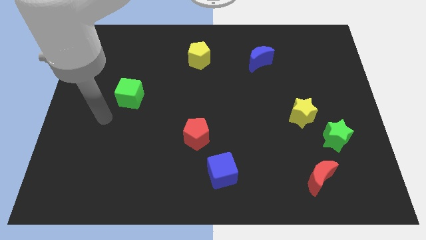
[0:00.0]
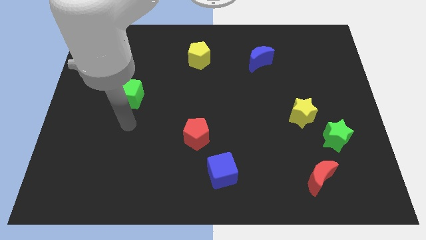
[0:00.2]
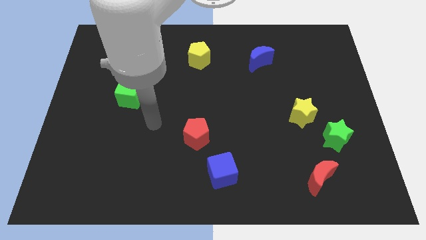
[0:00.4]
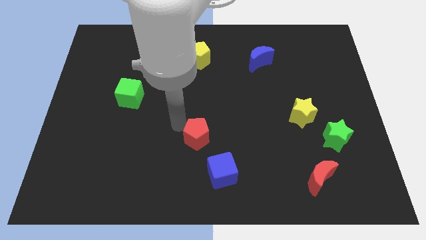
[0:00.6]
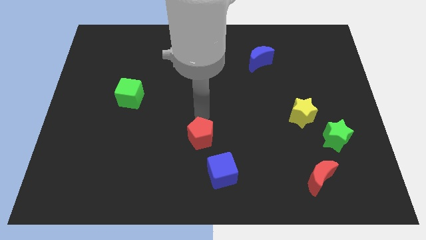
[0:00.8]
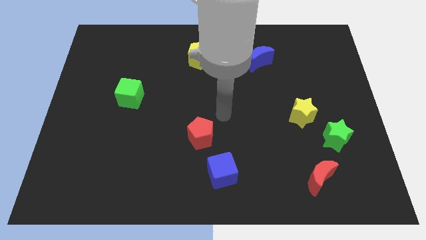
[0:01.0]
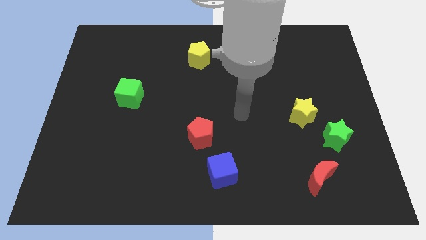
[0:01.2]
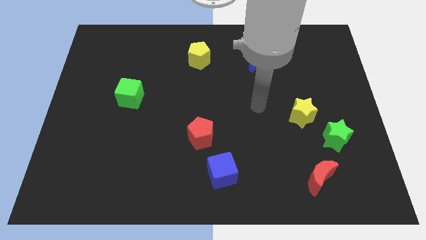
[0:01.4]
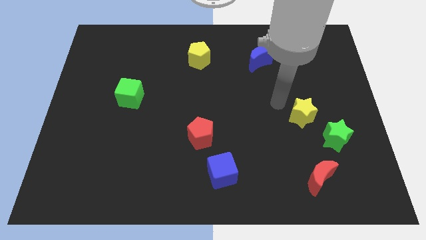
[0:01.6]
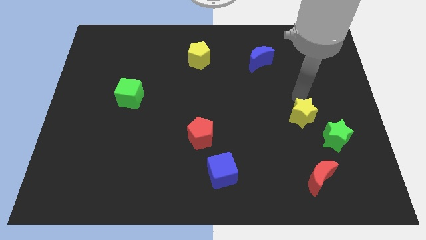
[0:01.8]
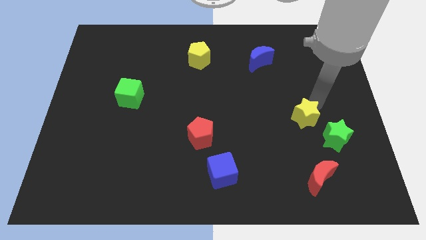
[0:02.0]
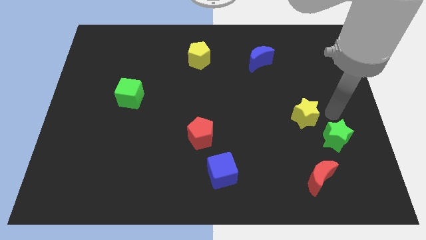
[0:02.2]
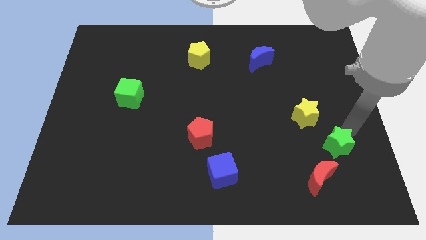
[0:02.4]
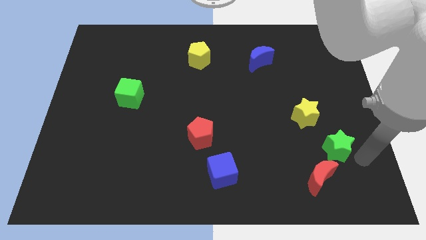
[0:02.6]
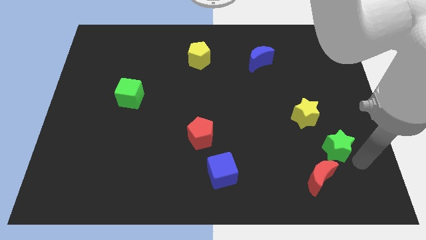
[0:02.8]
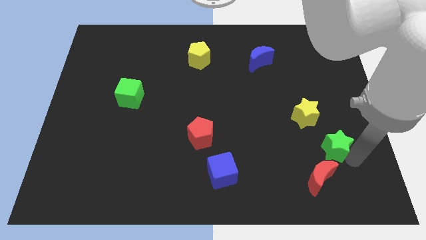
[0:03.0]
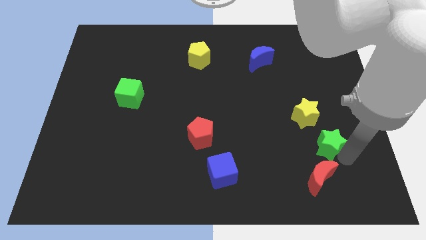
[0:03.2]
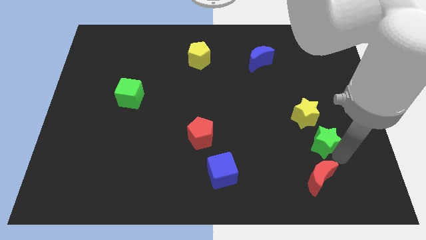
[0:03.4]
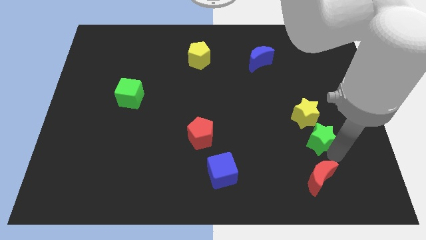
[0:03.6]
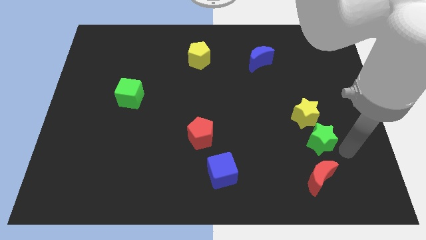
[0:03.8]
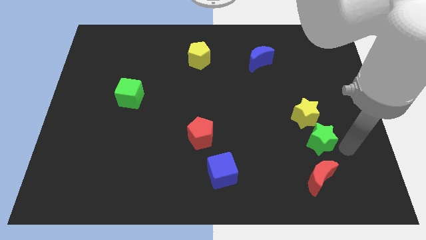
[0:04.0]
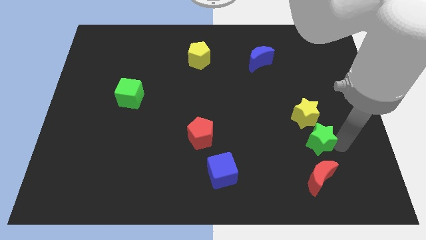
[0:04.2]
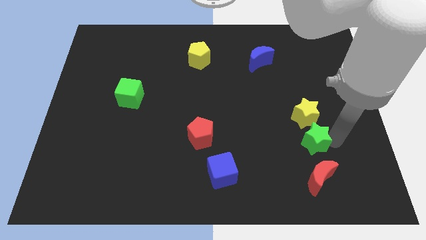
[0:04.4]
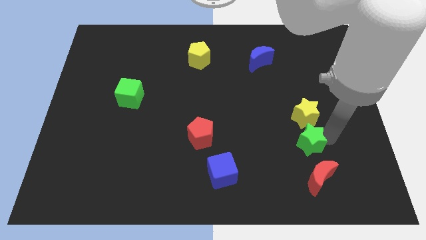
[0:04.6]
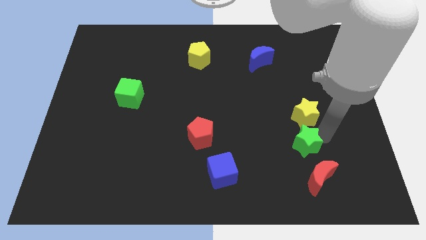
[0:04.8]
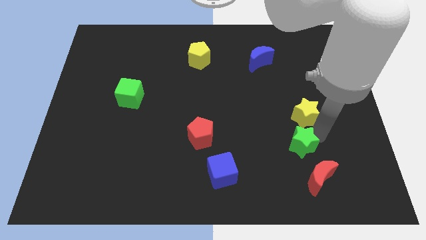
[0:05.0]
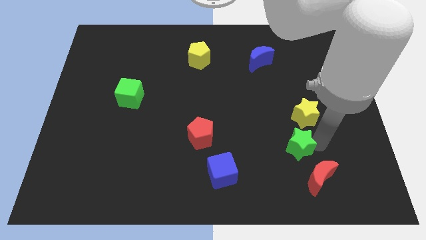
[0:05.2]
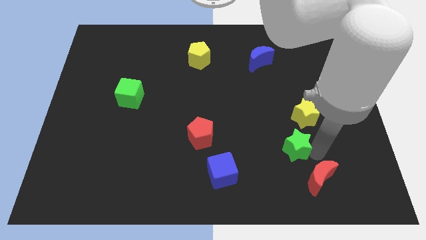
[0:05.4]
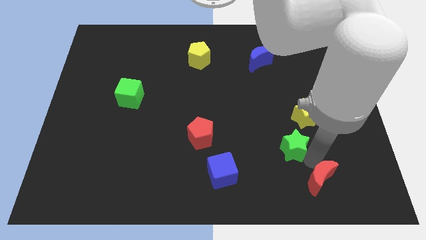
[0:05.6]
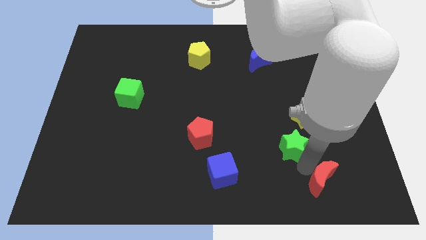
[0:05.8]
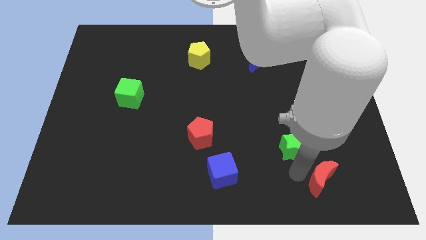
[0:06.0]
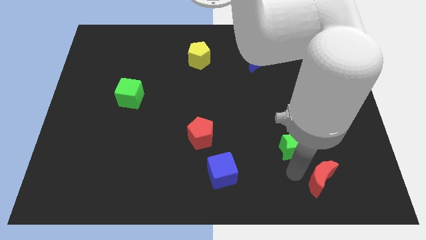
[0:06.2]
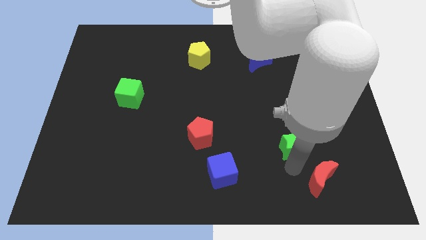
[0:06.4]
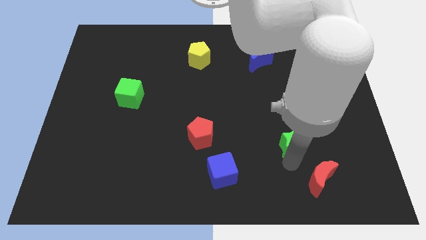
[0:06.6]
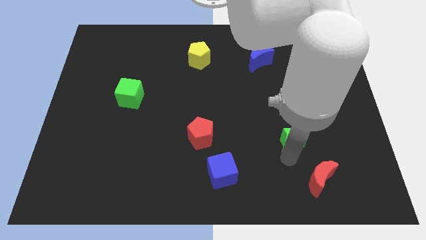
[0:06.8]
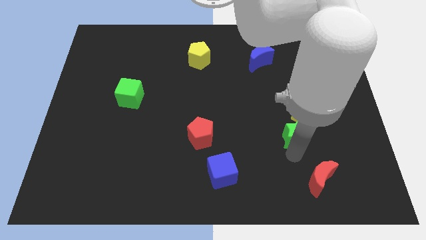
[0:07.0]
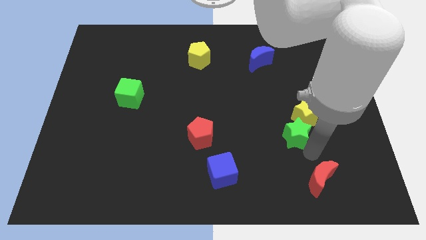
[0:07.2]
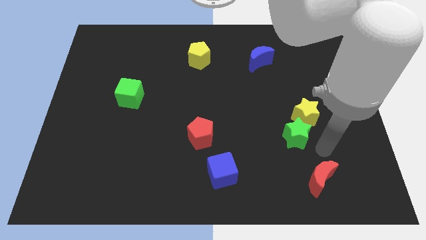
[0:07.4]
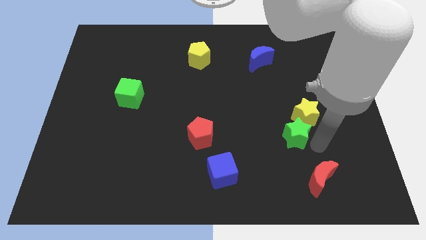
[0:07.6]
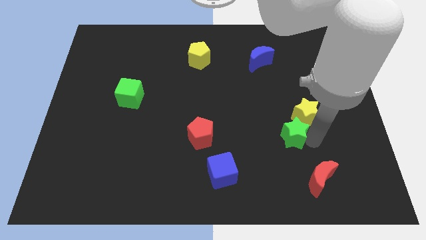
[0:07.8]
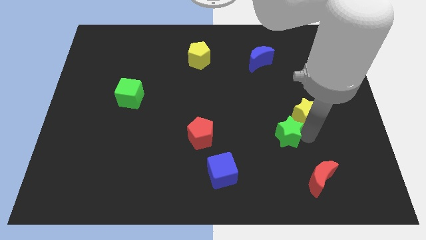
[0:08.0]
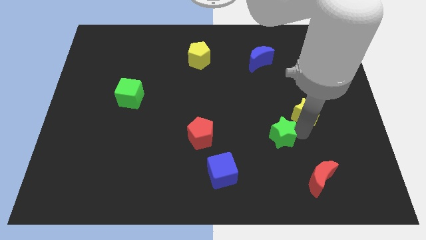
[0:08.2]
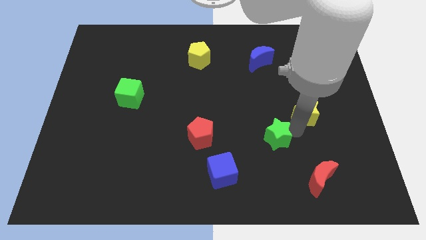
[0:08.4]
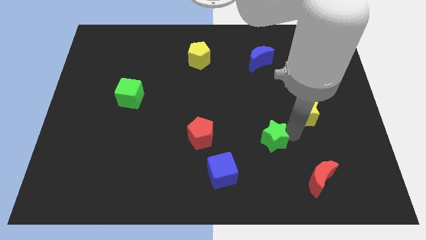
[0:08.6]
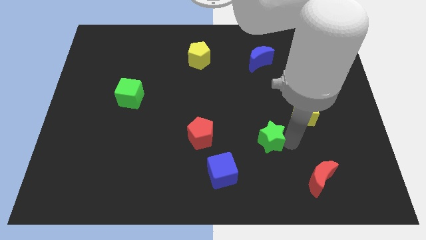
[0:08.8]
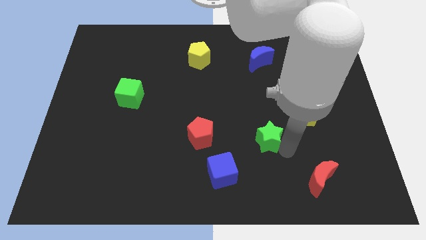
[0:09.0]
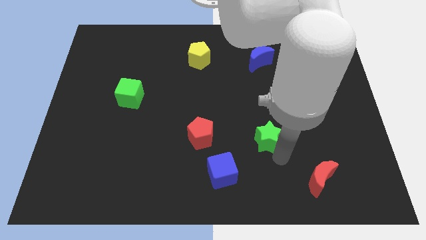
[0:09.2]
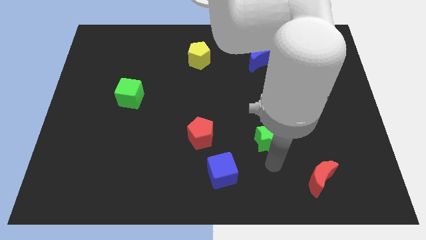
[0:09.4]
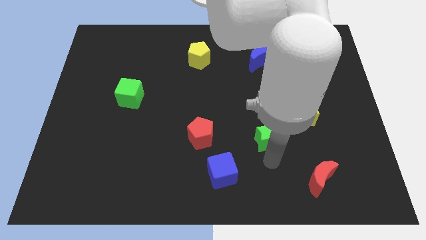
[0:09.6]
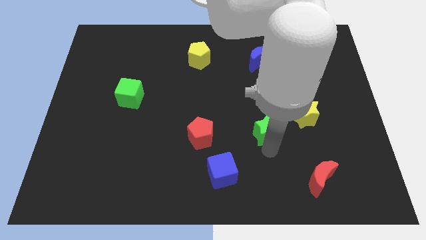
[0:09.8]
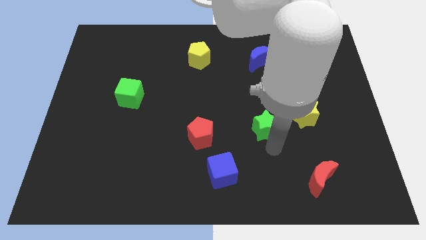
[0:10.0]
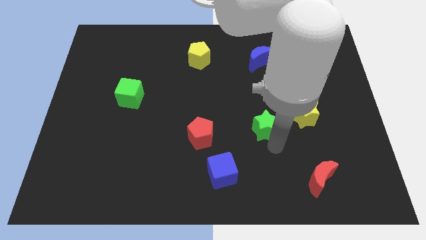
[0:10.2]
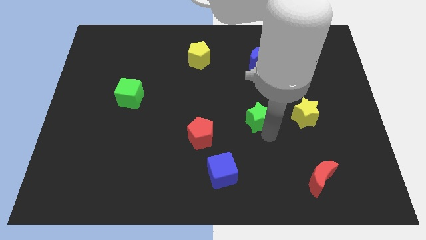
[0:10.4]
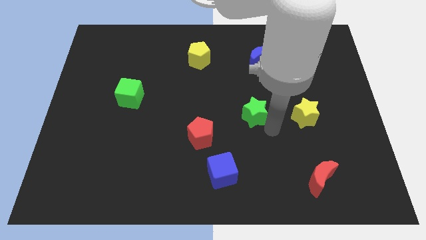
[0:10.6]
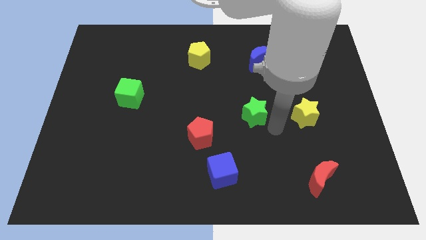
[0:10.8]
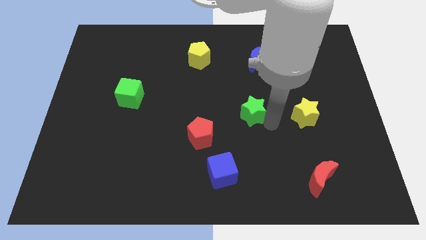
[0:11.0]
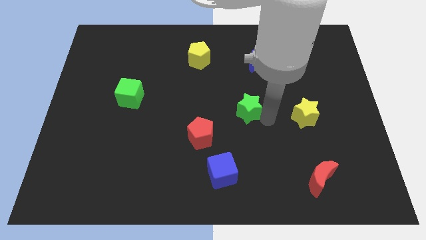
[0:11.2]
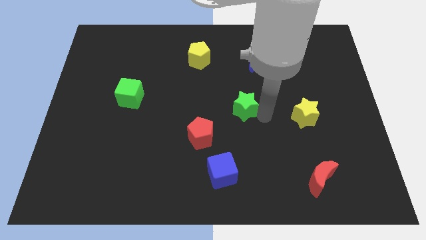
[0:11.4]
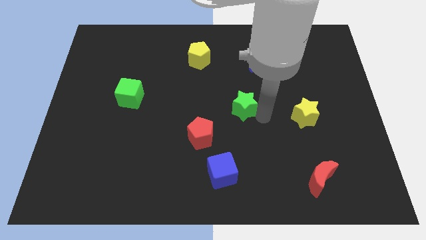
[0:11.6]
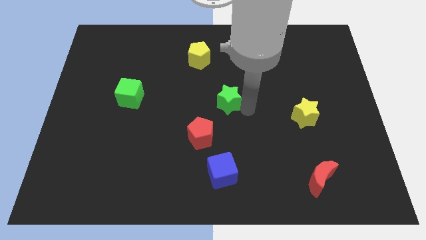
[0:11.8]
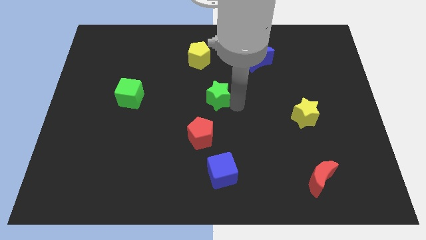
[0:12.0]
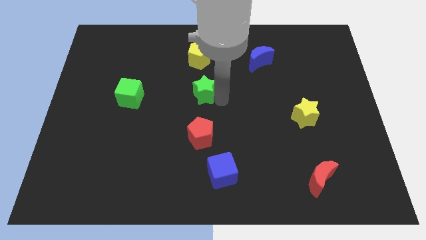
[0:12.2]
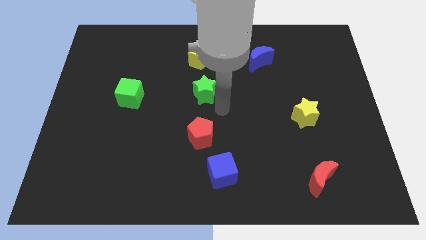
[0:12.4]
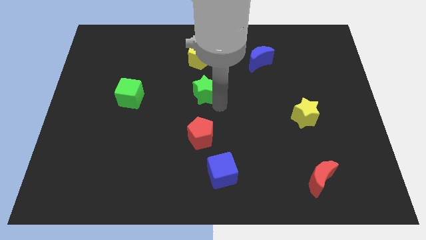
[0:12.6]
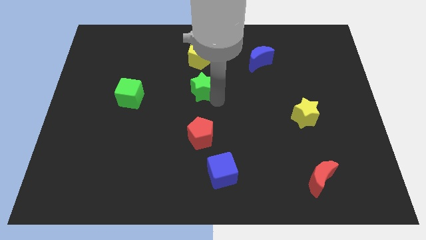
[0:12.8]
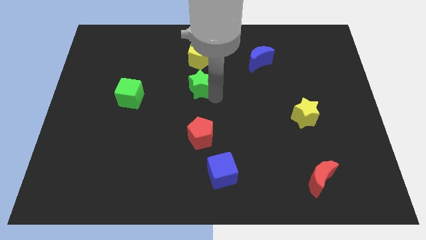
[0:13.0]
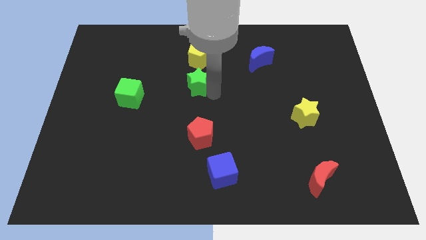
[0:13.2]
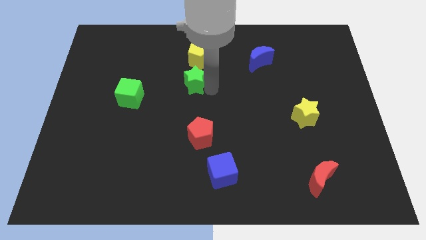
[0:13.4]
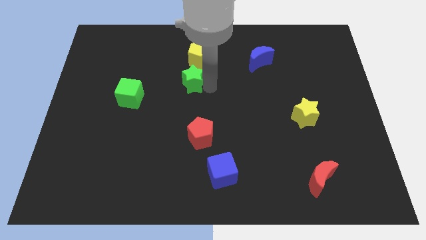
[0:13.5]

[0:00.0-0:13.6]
slide the green star diagonally down and to the left of the yellow pentagon
